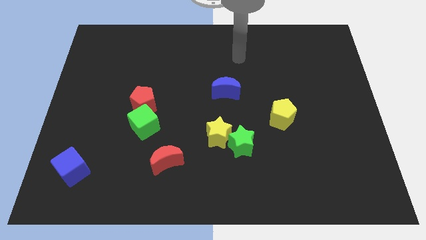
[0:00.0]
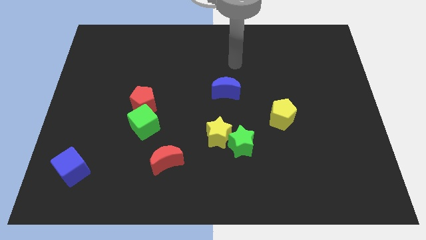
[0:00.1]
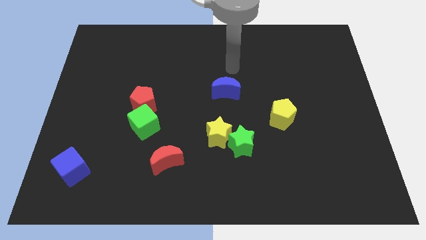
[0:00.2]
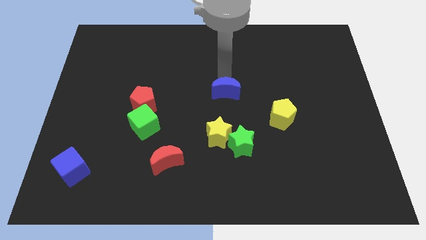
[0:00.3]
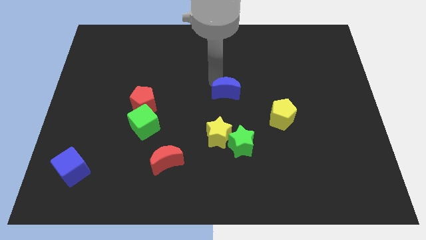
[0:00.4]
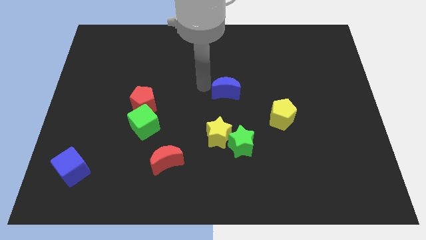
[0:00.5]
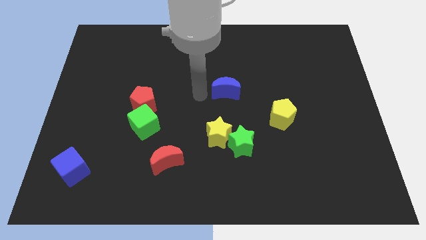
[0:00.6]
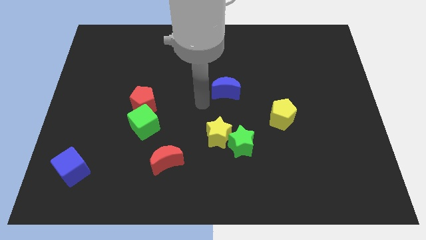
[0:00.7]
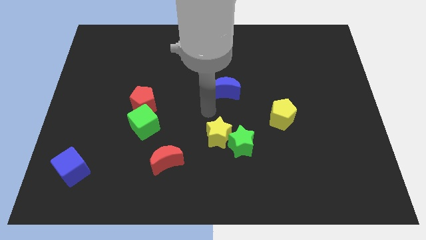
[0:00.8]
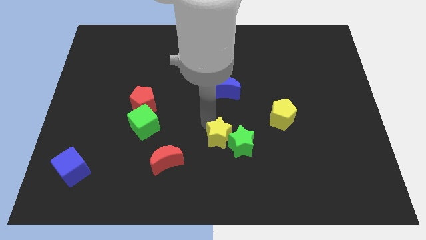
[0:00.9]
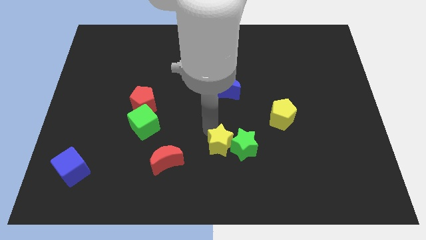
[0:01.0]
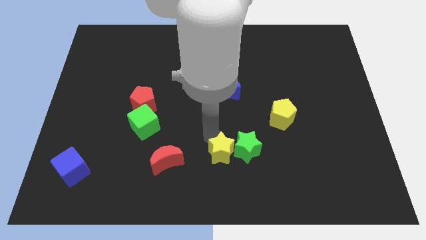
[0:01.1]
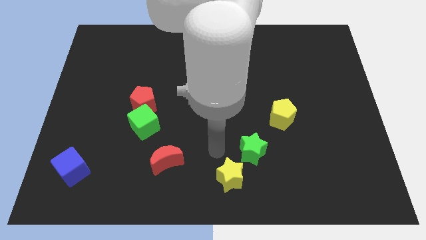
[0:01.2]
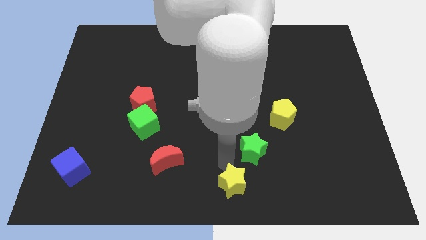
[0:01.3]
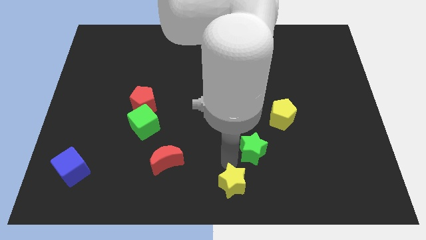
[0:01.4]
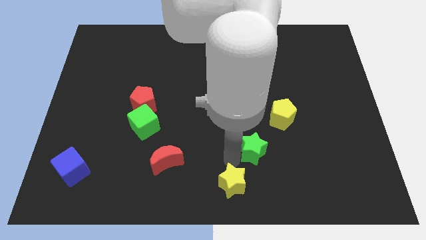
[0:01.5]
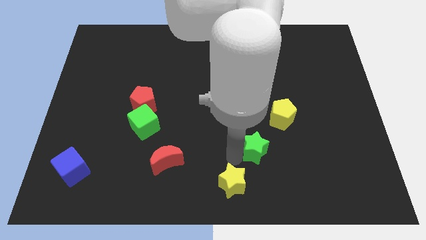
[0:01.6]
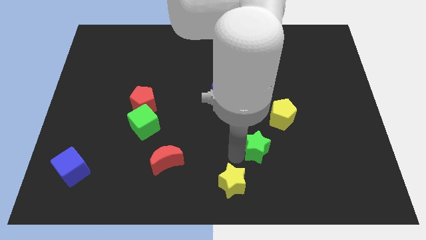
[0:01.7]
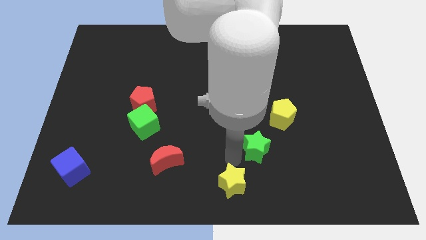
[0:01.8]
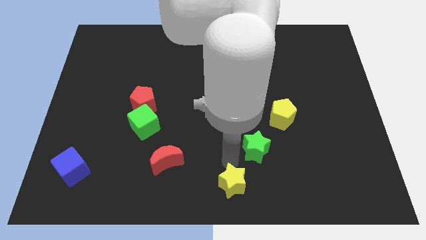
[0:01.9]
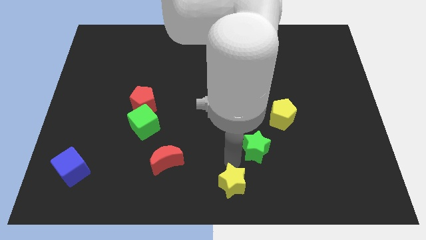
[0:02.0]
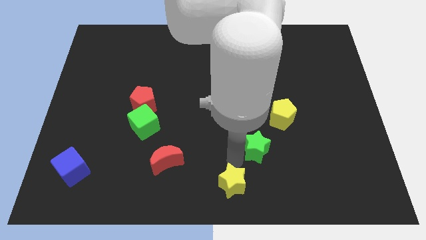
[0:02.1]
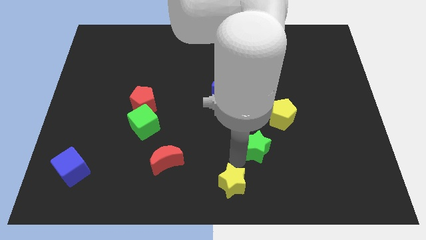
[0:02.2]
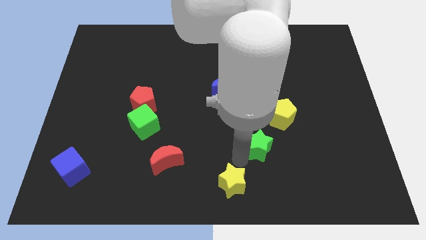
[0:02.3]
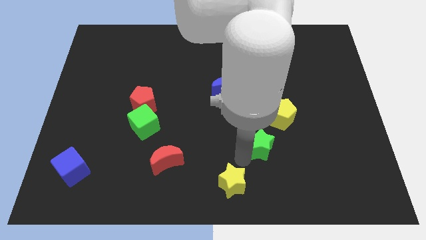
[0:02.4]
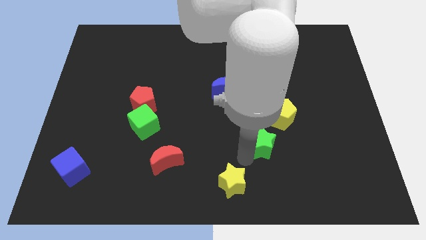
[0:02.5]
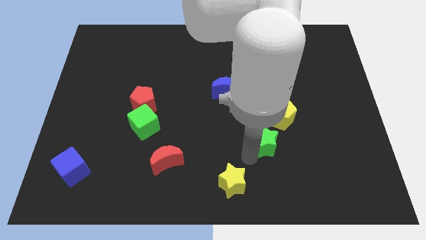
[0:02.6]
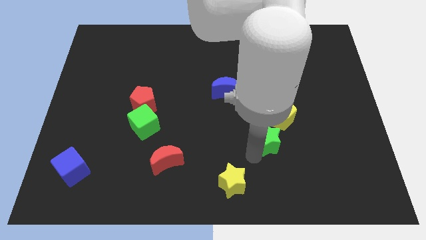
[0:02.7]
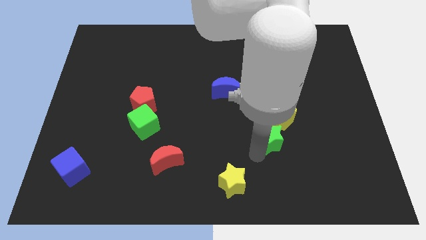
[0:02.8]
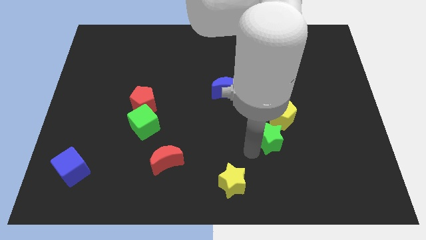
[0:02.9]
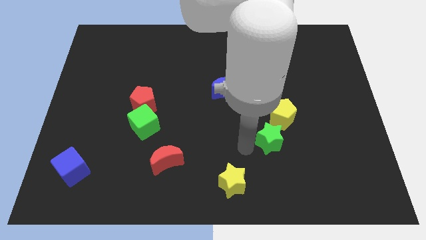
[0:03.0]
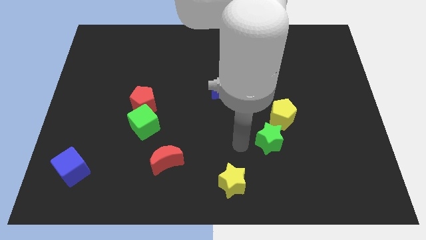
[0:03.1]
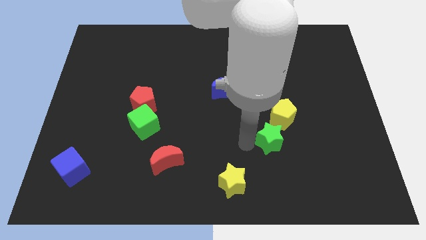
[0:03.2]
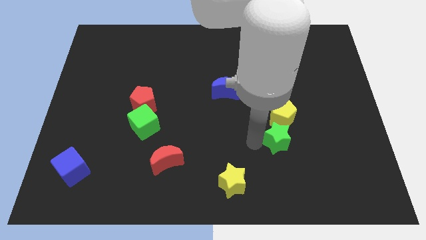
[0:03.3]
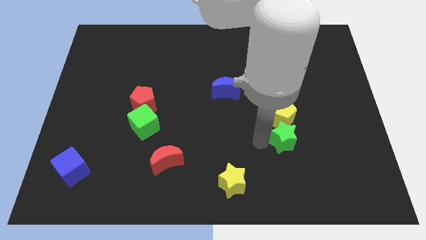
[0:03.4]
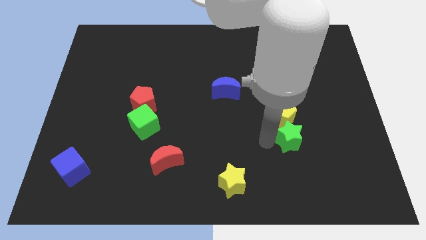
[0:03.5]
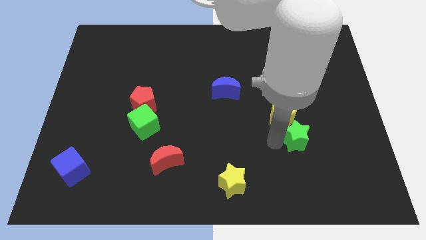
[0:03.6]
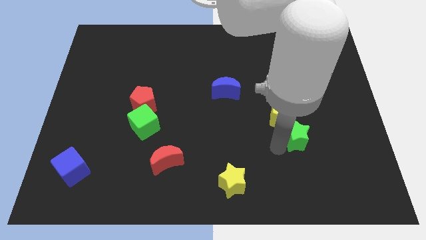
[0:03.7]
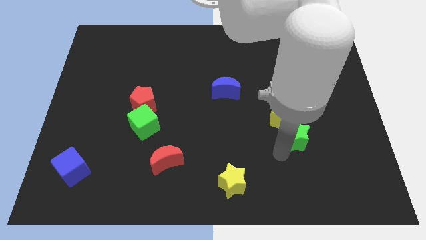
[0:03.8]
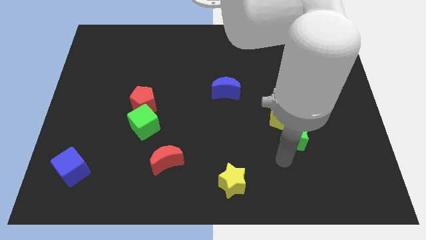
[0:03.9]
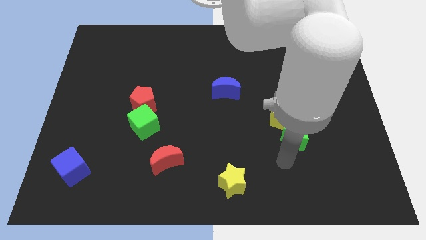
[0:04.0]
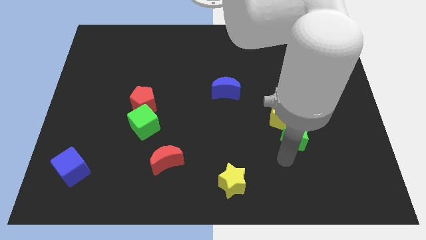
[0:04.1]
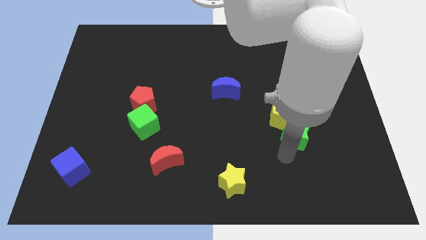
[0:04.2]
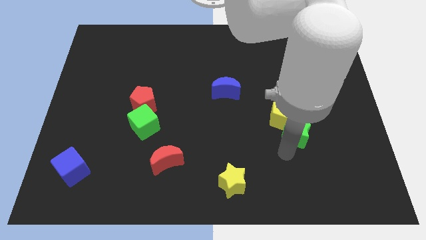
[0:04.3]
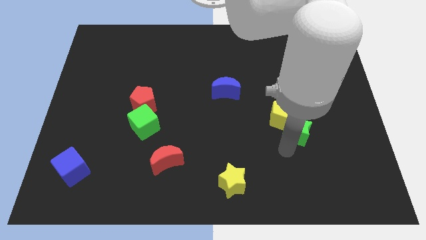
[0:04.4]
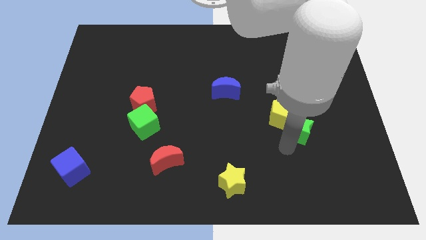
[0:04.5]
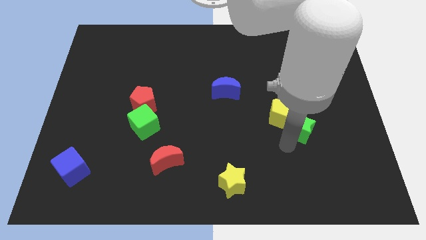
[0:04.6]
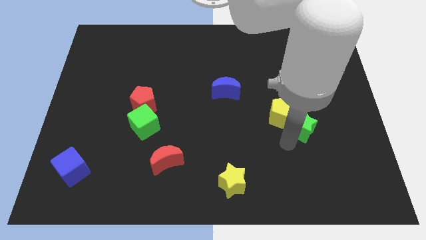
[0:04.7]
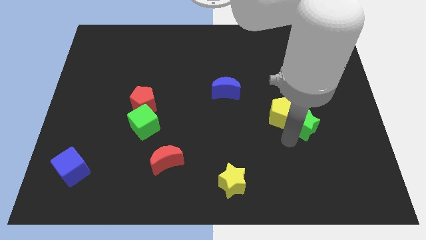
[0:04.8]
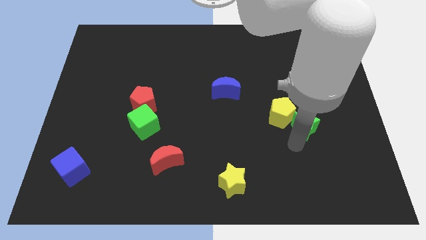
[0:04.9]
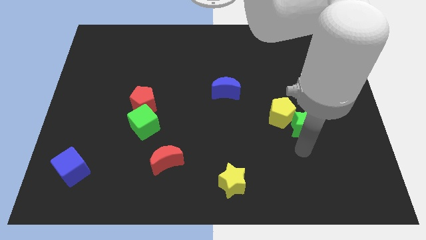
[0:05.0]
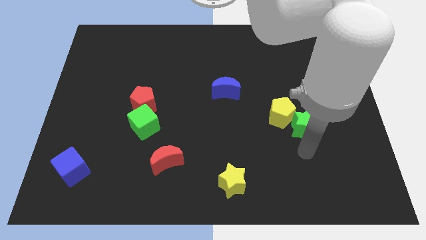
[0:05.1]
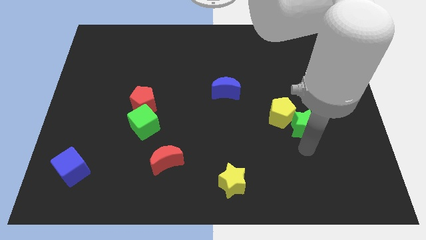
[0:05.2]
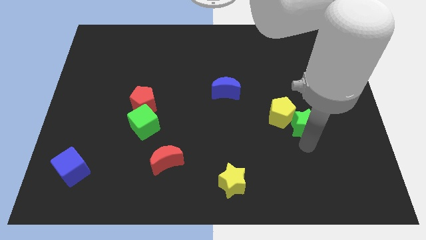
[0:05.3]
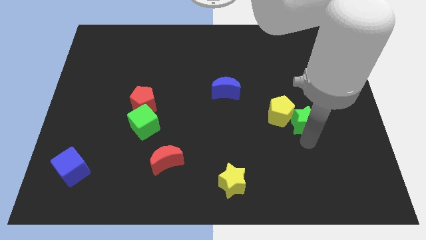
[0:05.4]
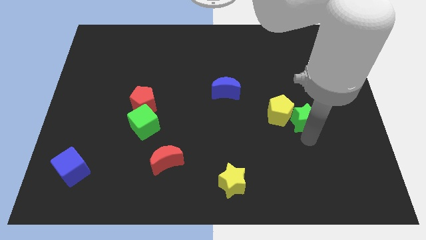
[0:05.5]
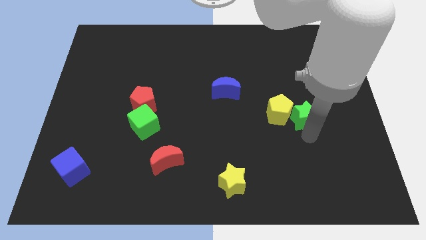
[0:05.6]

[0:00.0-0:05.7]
slide the green star to the top right side of the yellow pentagon

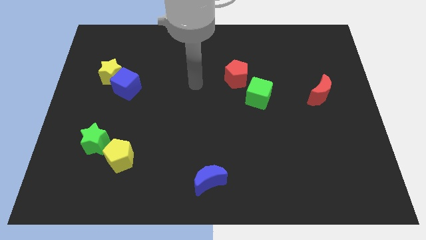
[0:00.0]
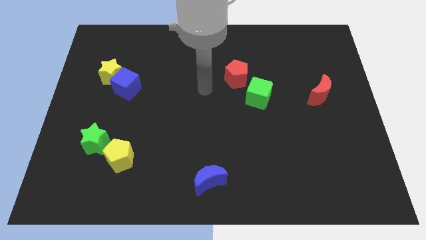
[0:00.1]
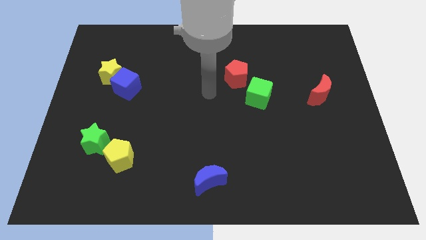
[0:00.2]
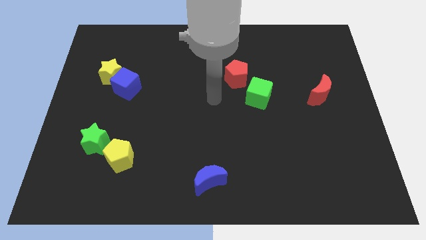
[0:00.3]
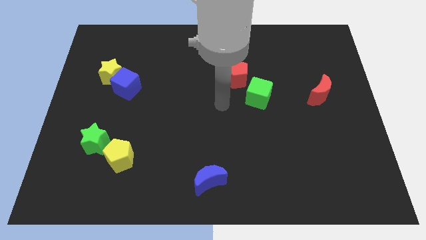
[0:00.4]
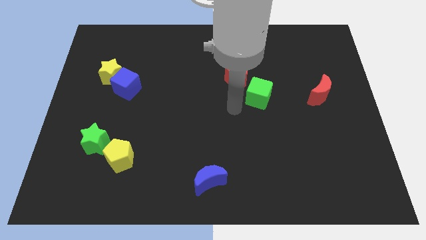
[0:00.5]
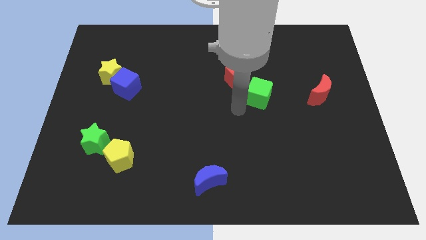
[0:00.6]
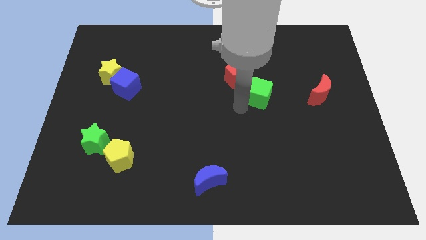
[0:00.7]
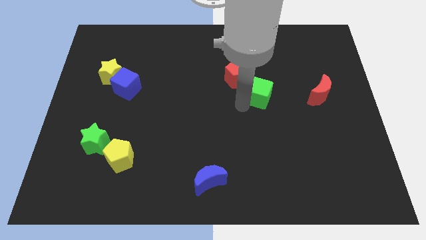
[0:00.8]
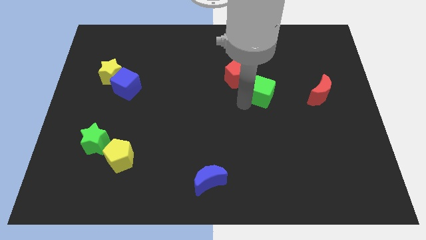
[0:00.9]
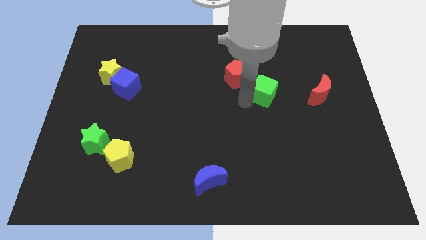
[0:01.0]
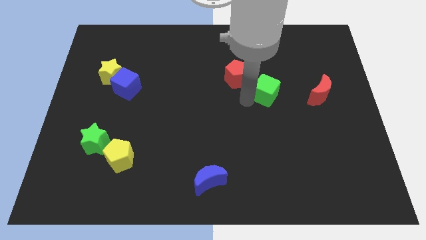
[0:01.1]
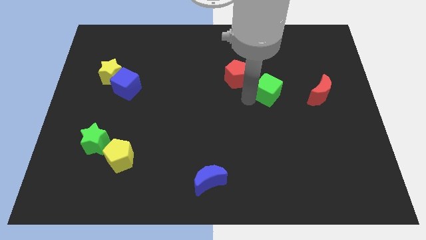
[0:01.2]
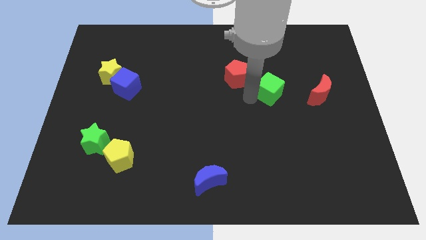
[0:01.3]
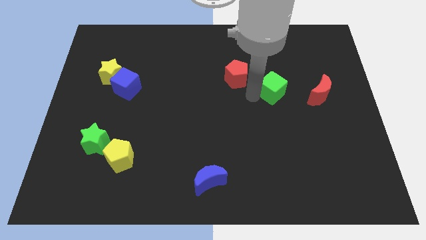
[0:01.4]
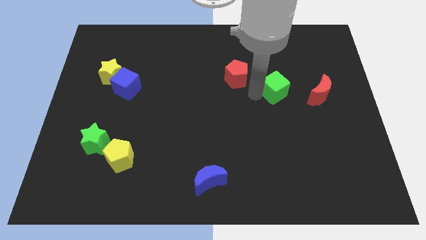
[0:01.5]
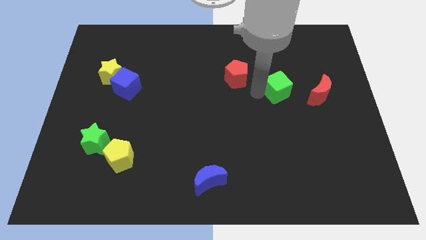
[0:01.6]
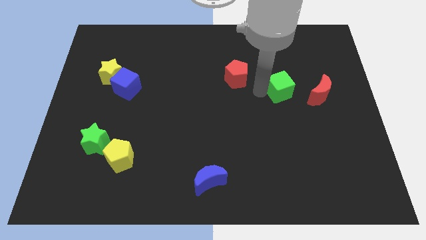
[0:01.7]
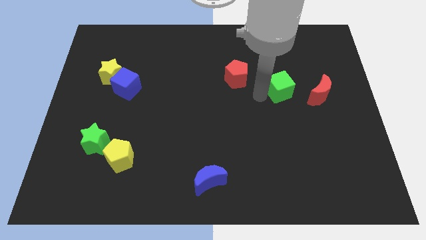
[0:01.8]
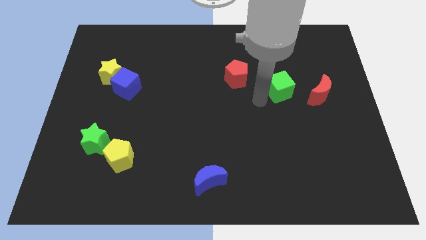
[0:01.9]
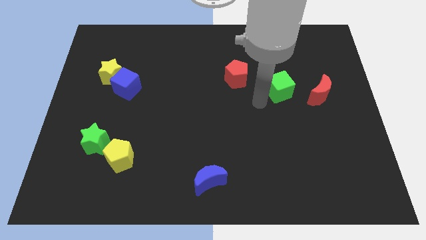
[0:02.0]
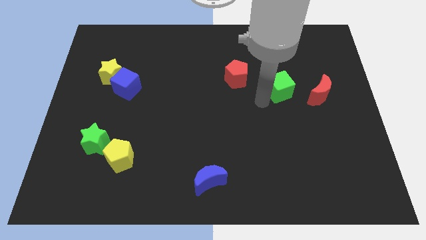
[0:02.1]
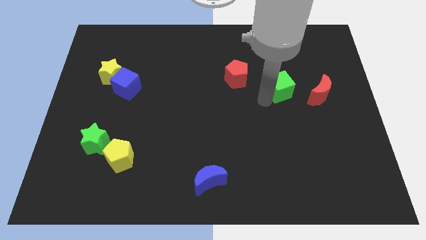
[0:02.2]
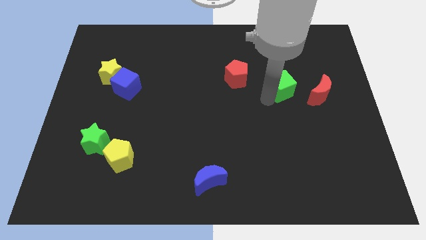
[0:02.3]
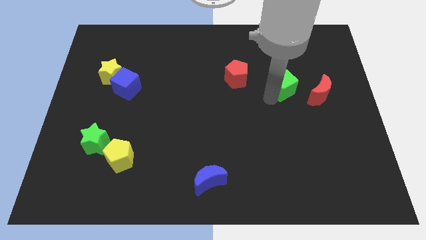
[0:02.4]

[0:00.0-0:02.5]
push the green cube diagonally up and to the left of the red moon
